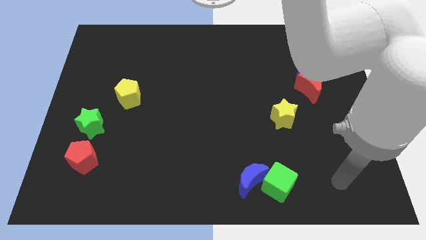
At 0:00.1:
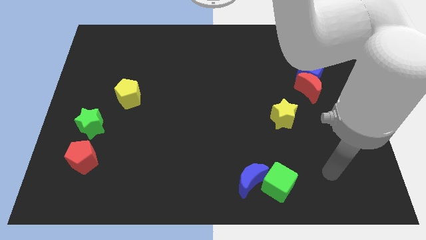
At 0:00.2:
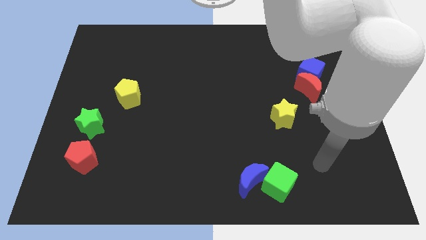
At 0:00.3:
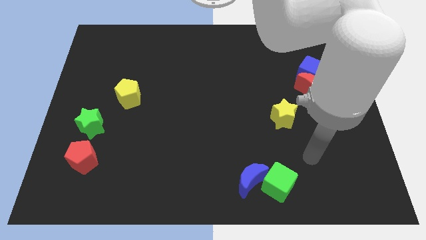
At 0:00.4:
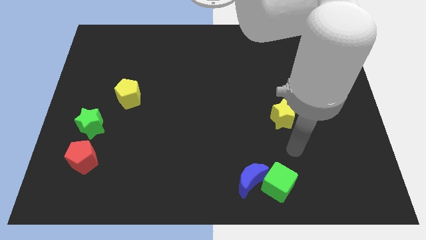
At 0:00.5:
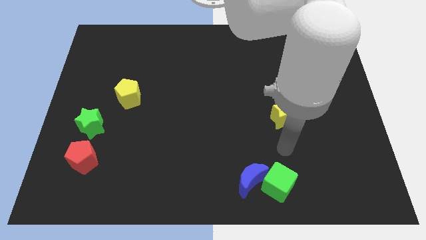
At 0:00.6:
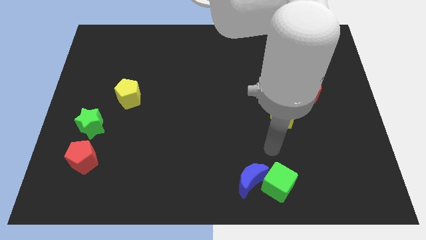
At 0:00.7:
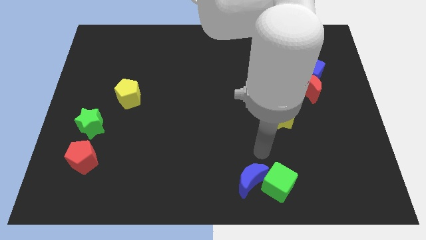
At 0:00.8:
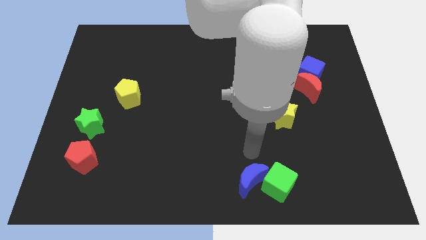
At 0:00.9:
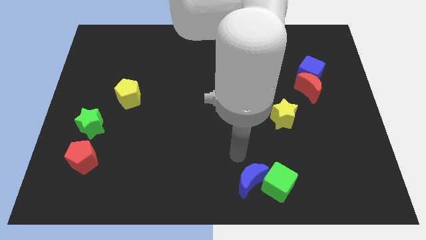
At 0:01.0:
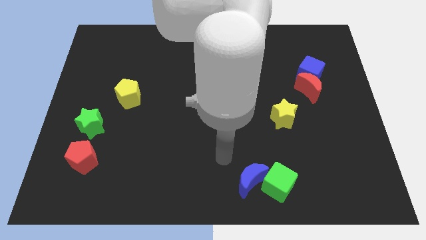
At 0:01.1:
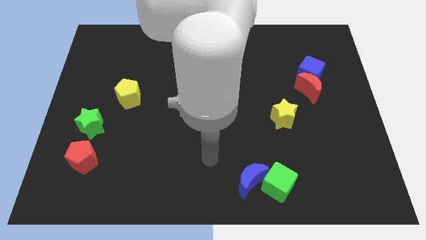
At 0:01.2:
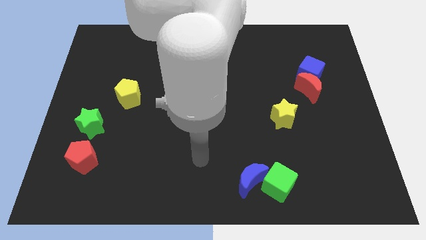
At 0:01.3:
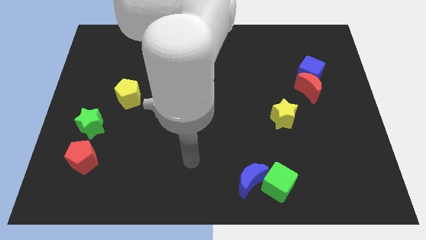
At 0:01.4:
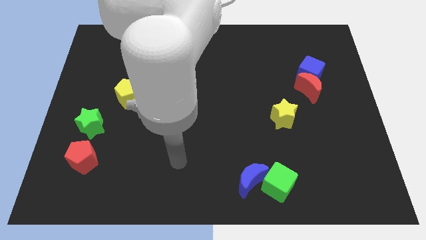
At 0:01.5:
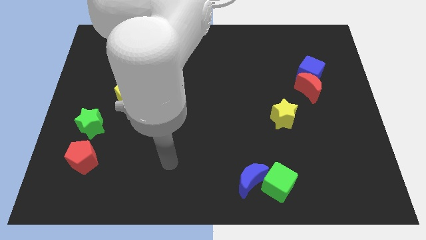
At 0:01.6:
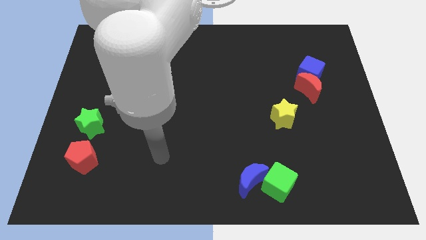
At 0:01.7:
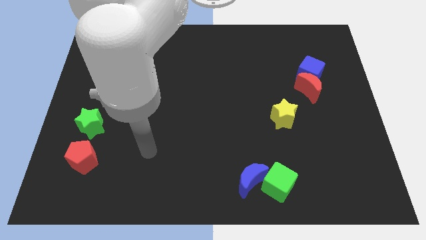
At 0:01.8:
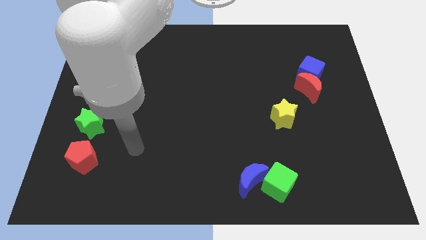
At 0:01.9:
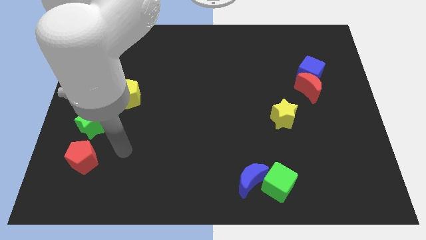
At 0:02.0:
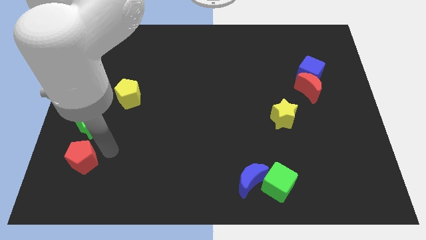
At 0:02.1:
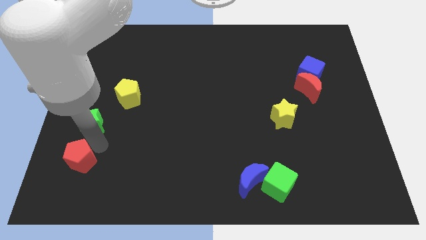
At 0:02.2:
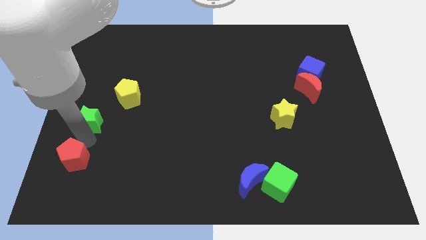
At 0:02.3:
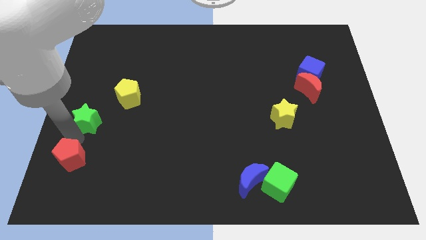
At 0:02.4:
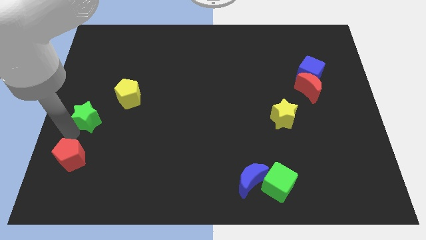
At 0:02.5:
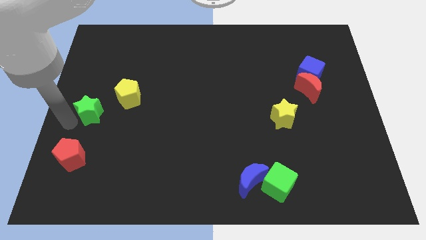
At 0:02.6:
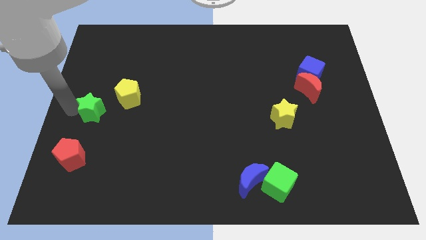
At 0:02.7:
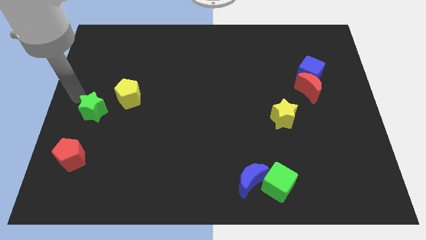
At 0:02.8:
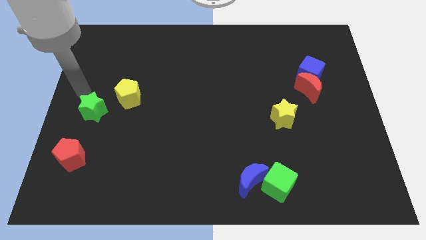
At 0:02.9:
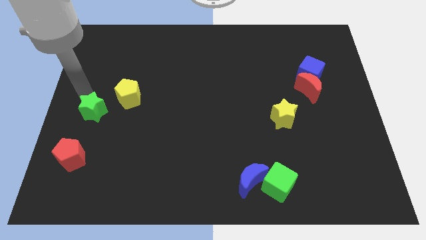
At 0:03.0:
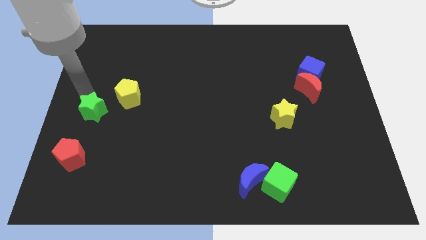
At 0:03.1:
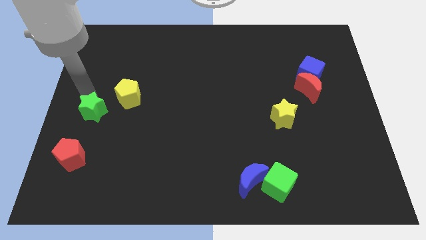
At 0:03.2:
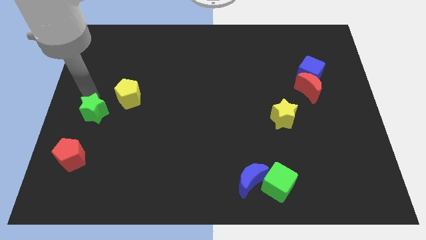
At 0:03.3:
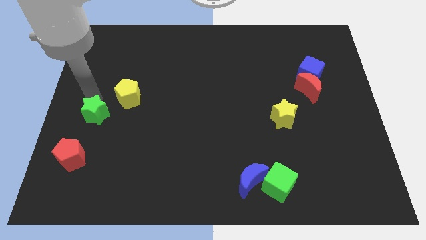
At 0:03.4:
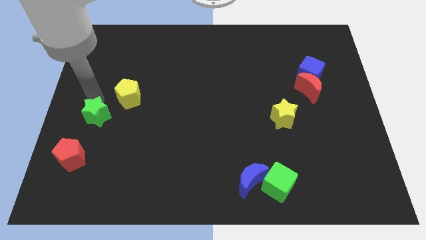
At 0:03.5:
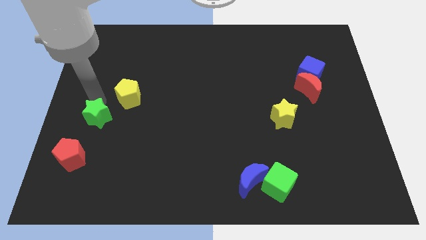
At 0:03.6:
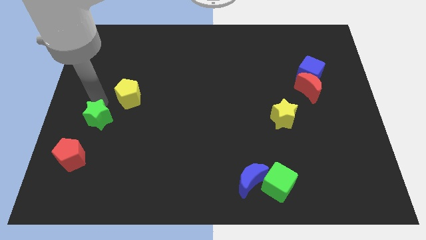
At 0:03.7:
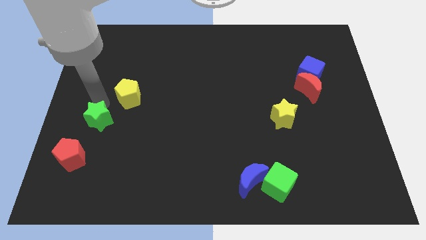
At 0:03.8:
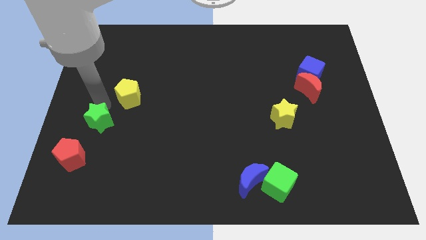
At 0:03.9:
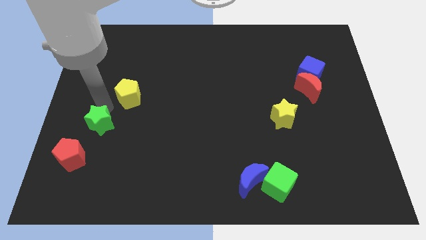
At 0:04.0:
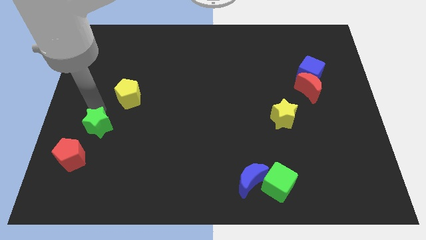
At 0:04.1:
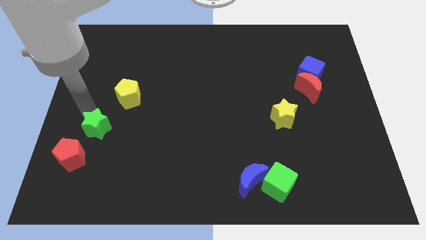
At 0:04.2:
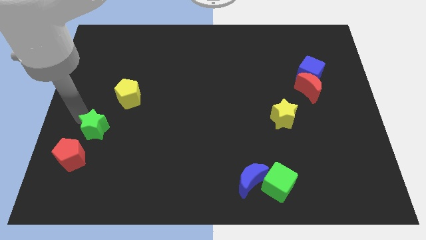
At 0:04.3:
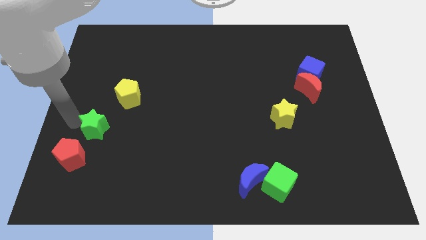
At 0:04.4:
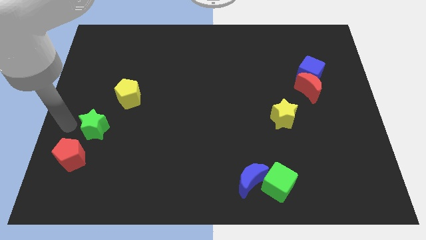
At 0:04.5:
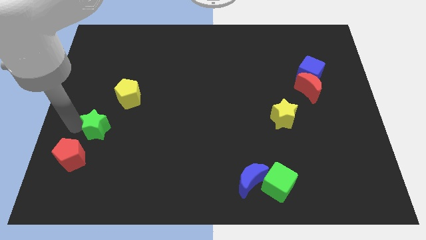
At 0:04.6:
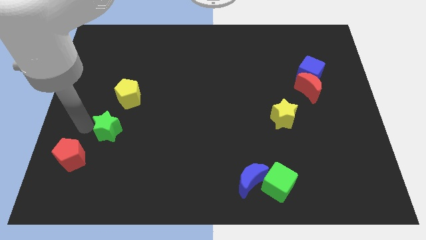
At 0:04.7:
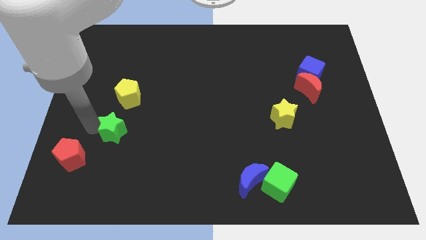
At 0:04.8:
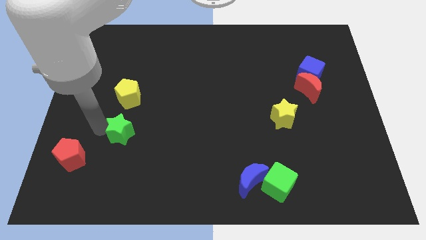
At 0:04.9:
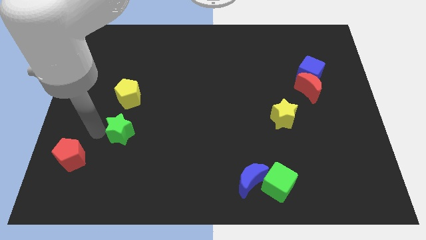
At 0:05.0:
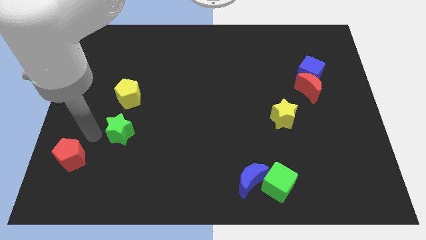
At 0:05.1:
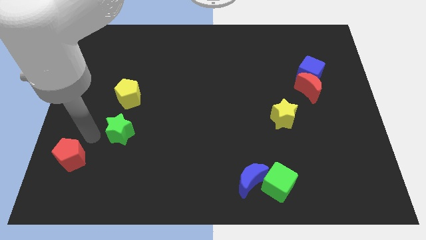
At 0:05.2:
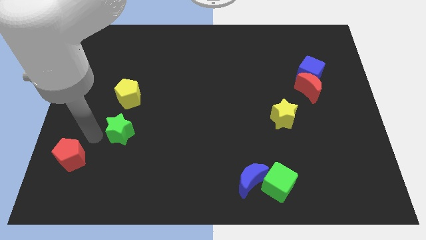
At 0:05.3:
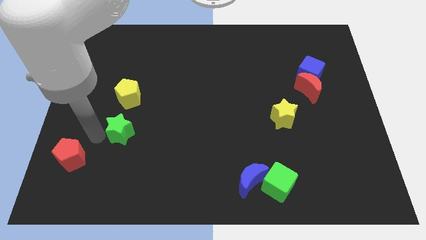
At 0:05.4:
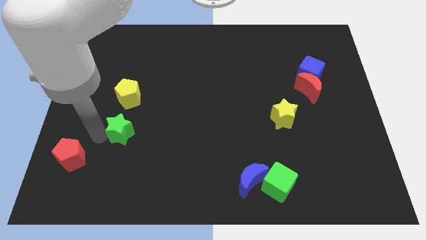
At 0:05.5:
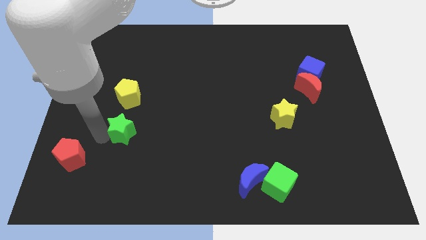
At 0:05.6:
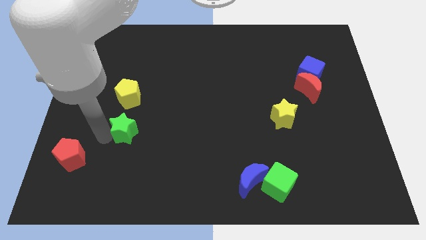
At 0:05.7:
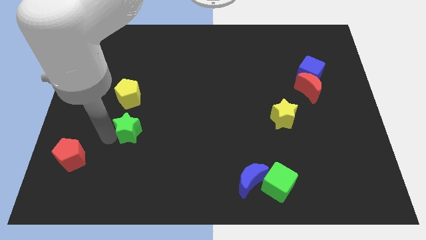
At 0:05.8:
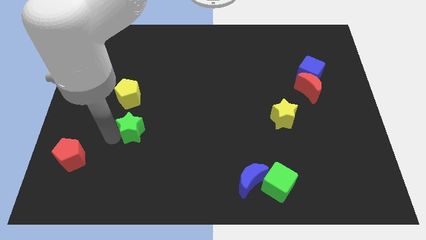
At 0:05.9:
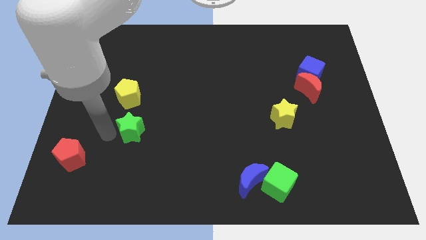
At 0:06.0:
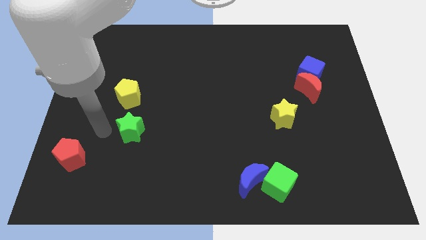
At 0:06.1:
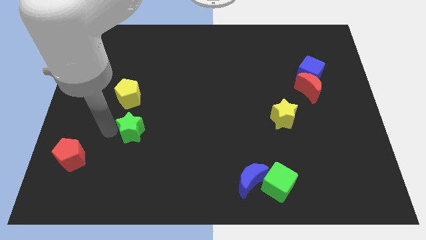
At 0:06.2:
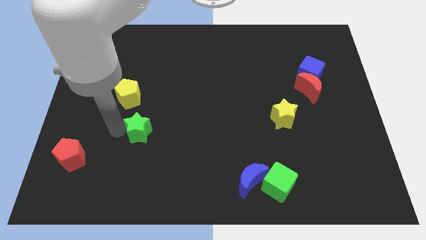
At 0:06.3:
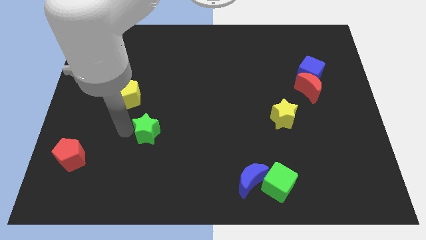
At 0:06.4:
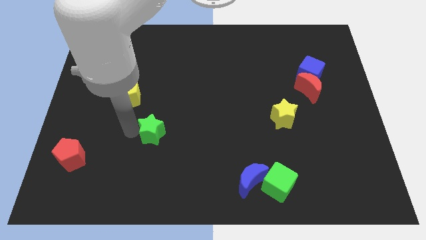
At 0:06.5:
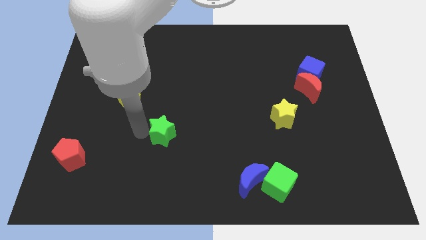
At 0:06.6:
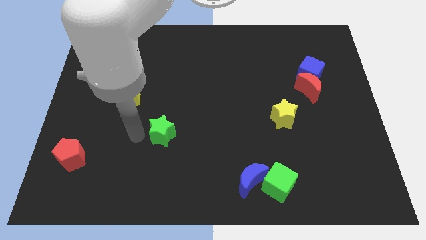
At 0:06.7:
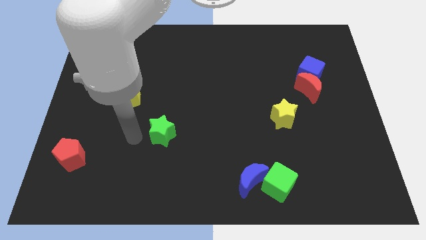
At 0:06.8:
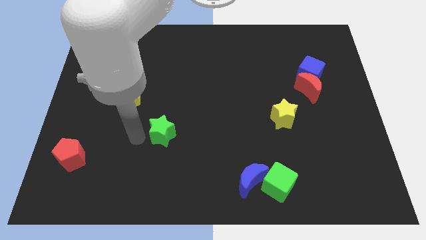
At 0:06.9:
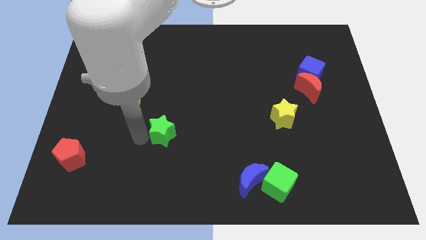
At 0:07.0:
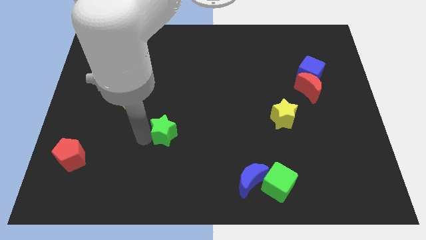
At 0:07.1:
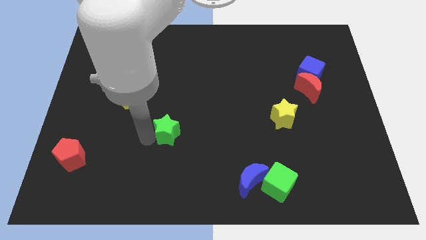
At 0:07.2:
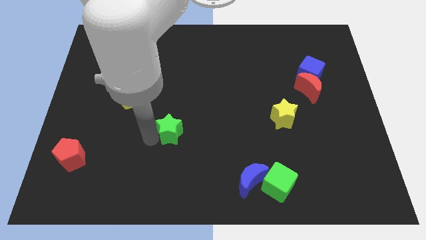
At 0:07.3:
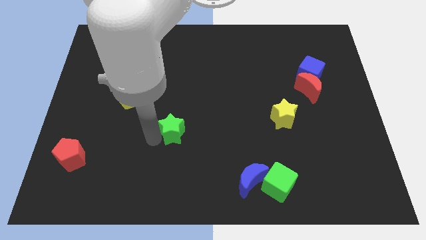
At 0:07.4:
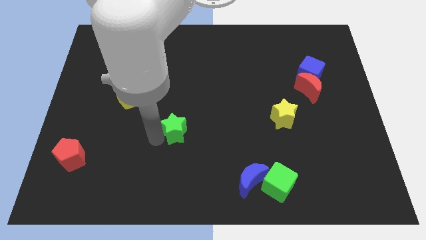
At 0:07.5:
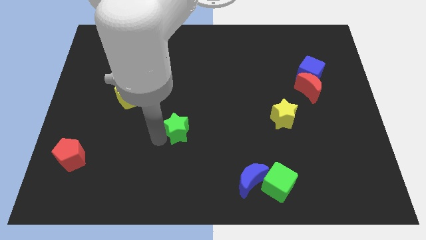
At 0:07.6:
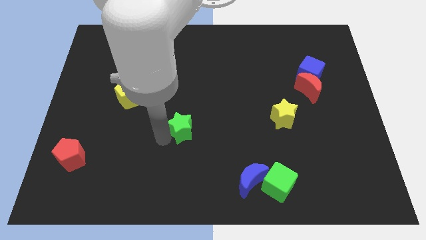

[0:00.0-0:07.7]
slide the green star right

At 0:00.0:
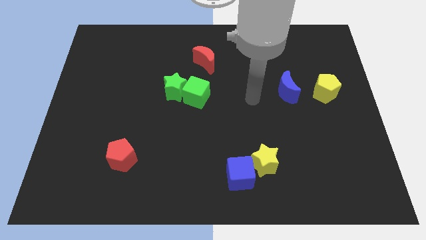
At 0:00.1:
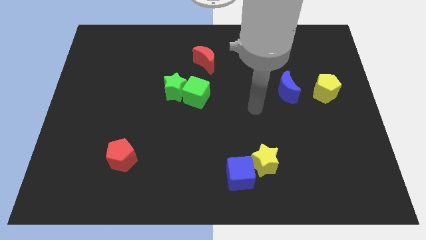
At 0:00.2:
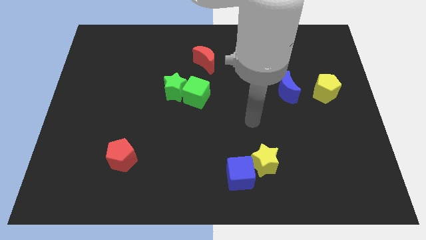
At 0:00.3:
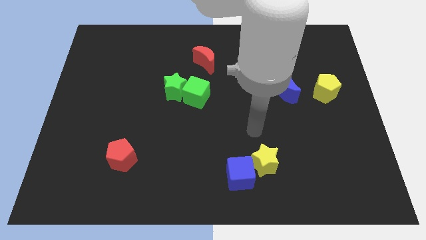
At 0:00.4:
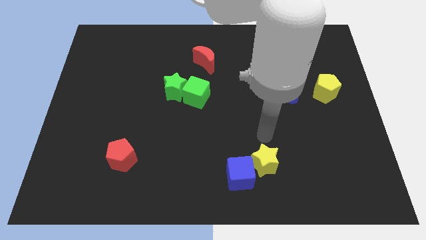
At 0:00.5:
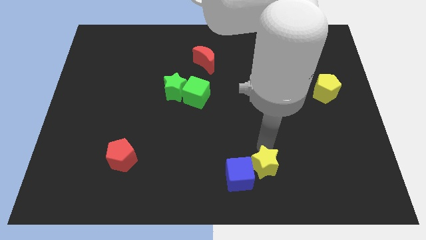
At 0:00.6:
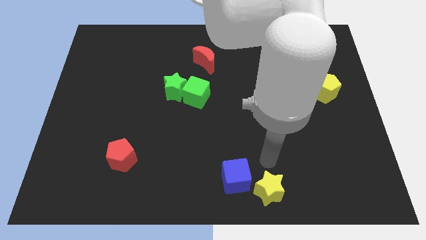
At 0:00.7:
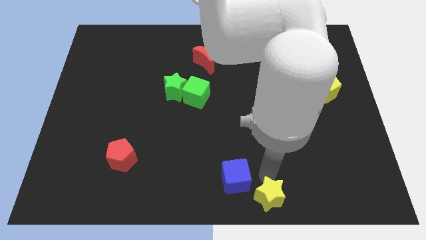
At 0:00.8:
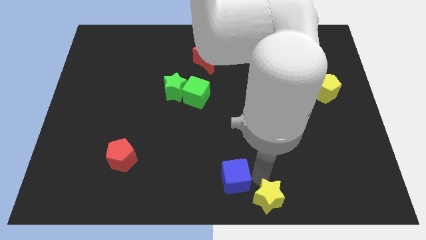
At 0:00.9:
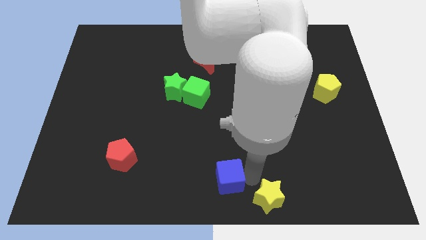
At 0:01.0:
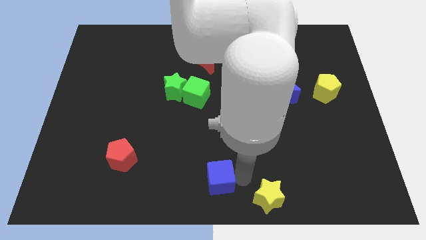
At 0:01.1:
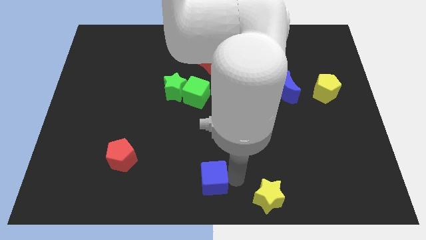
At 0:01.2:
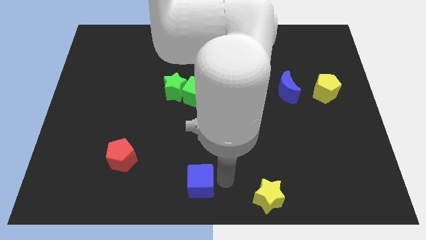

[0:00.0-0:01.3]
slide the blue cube slightly to the left
